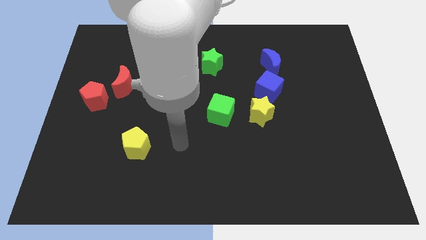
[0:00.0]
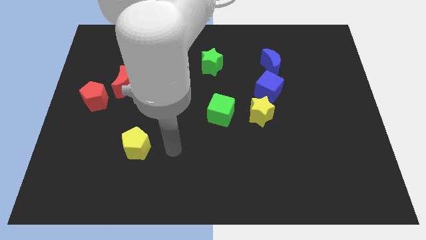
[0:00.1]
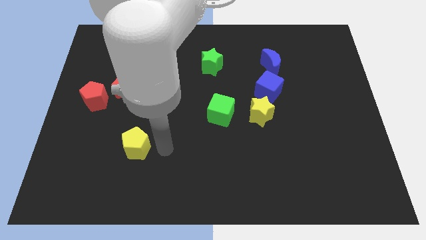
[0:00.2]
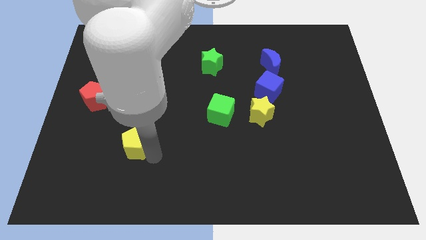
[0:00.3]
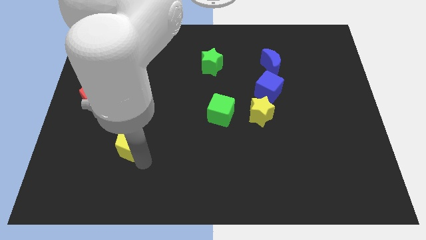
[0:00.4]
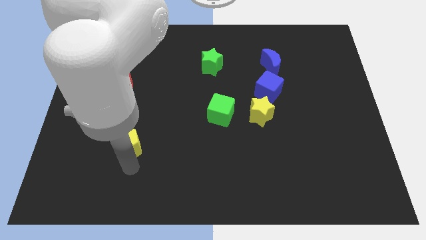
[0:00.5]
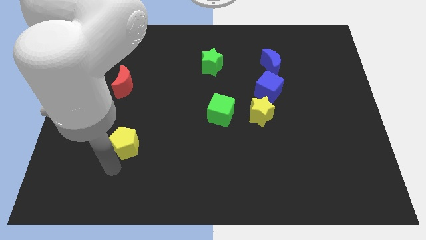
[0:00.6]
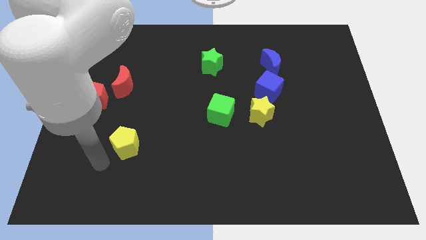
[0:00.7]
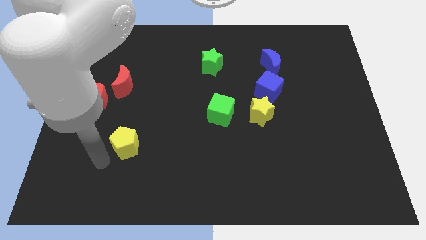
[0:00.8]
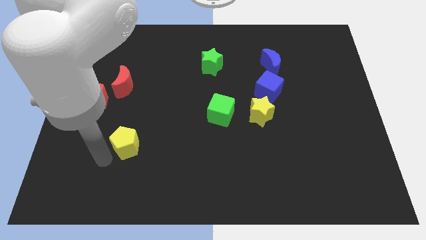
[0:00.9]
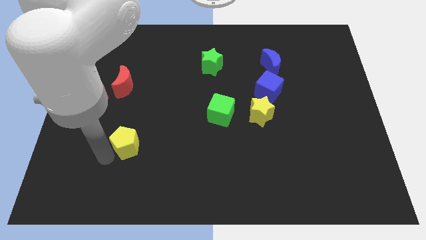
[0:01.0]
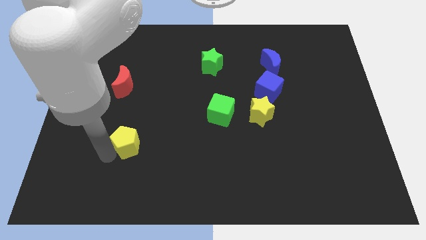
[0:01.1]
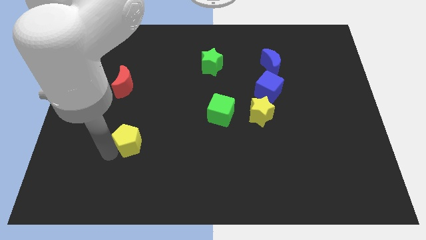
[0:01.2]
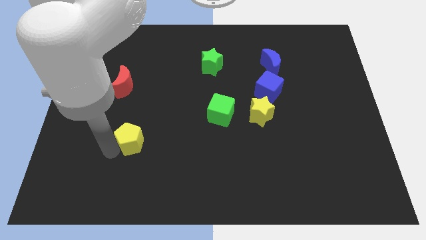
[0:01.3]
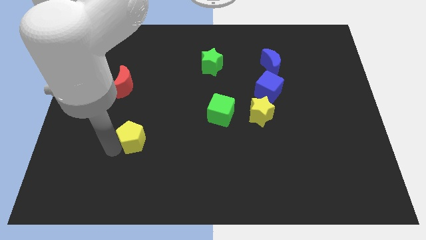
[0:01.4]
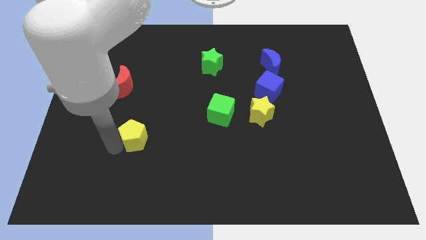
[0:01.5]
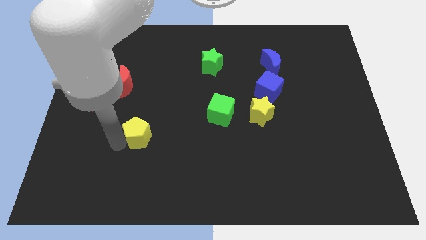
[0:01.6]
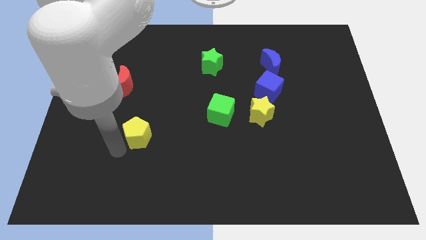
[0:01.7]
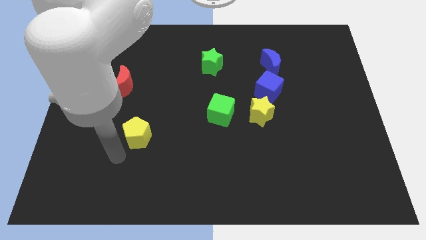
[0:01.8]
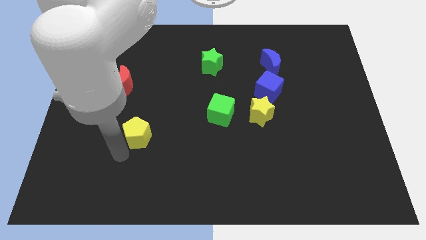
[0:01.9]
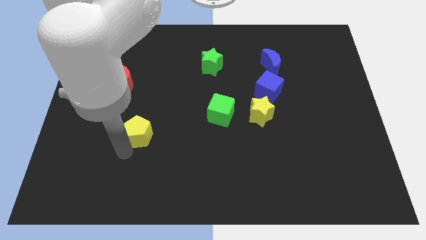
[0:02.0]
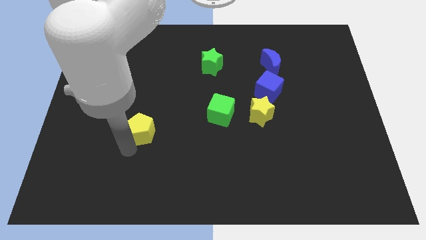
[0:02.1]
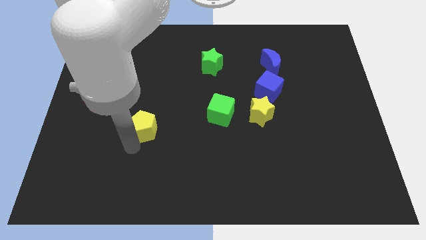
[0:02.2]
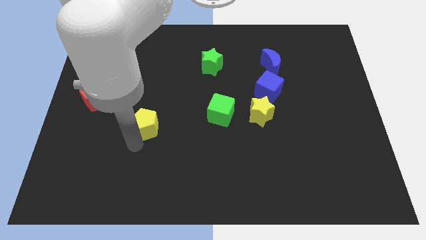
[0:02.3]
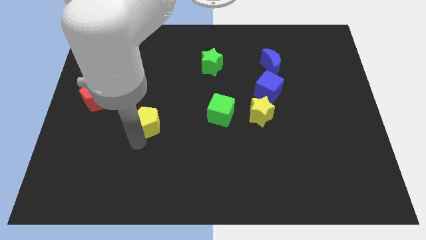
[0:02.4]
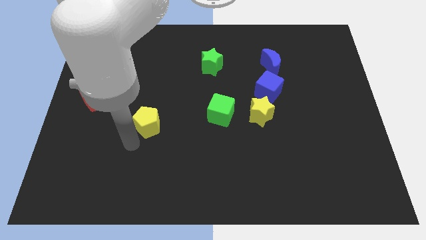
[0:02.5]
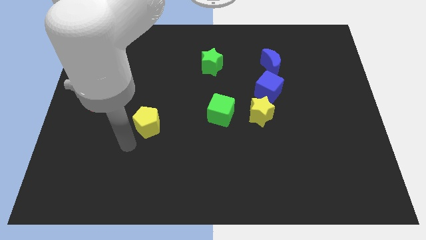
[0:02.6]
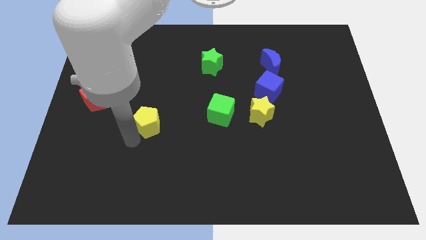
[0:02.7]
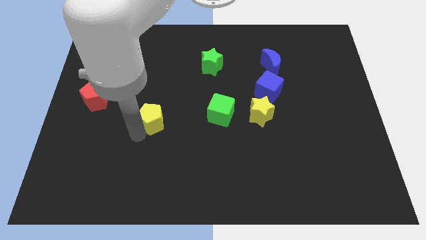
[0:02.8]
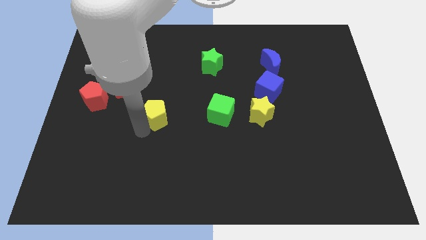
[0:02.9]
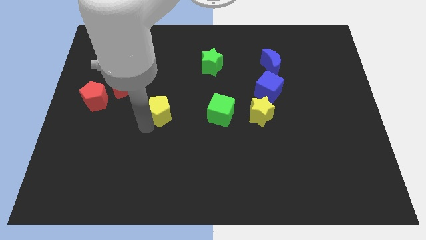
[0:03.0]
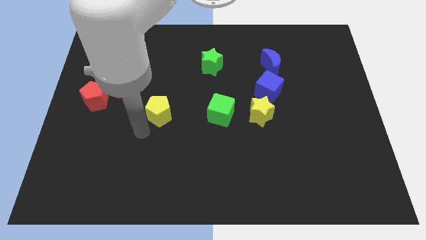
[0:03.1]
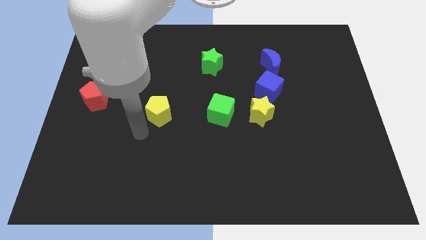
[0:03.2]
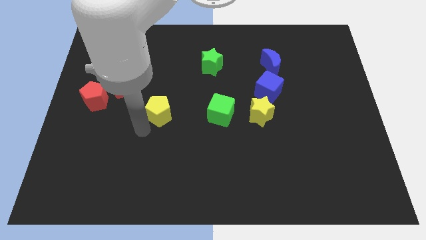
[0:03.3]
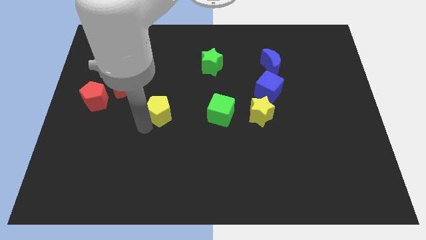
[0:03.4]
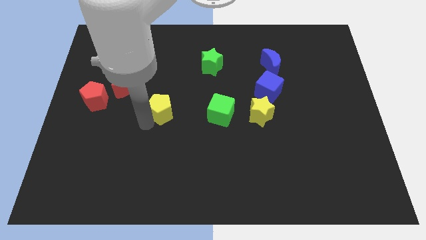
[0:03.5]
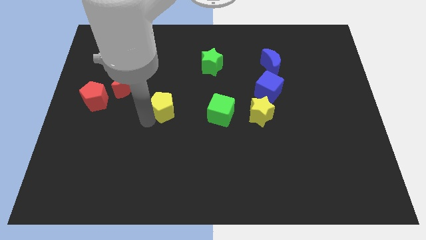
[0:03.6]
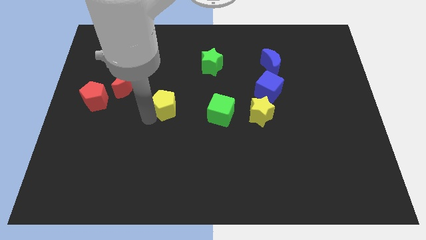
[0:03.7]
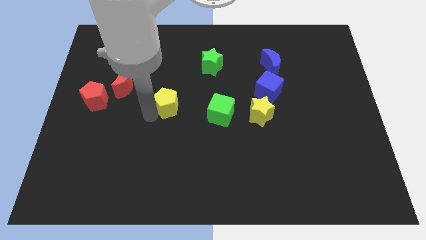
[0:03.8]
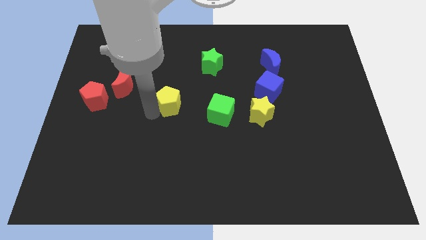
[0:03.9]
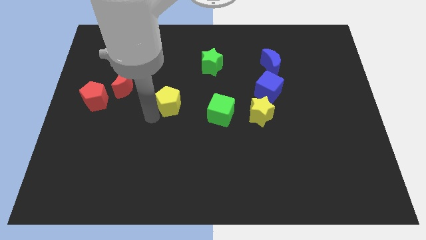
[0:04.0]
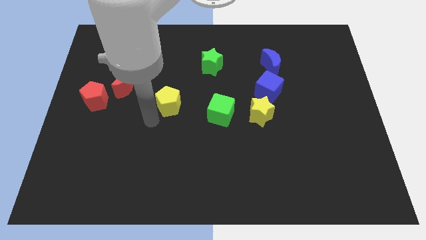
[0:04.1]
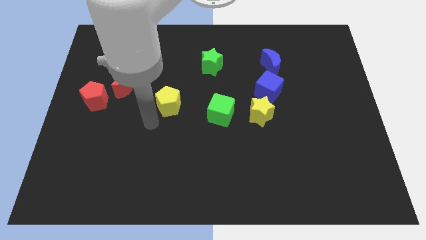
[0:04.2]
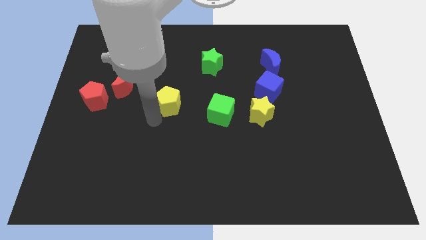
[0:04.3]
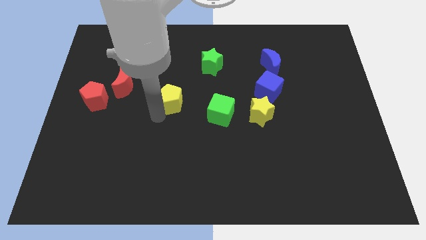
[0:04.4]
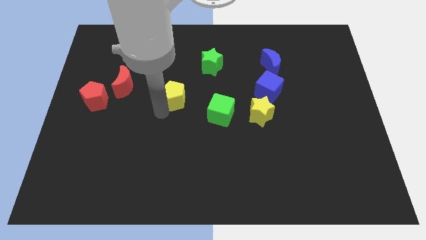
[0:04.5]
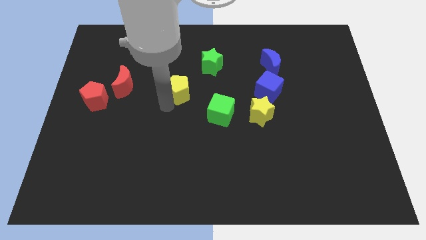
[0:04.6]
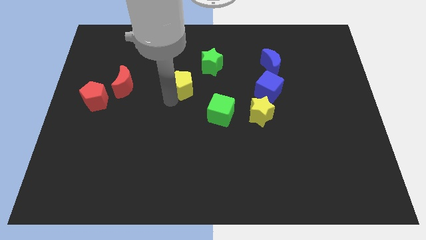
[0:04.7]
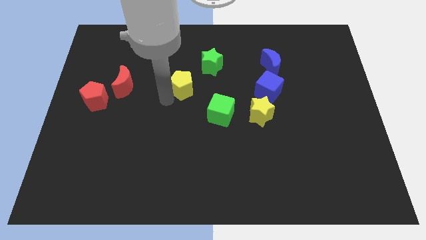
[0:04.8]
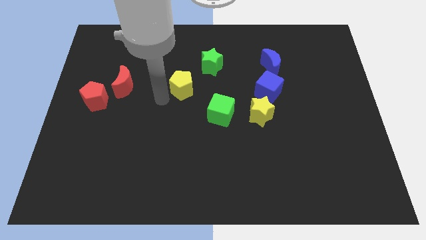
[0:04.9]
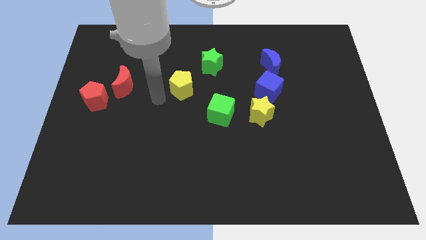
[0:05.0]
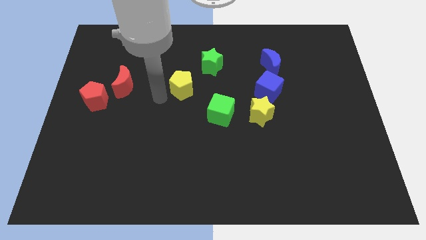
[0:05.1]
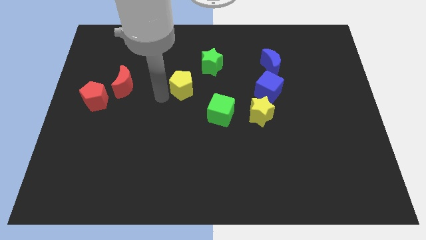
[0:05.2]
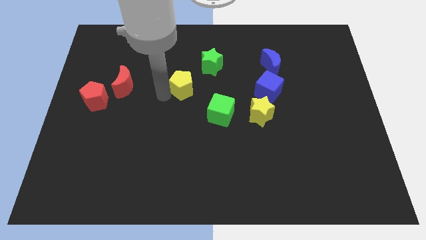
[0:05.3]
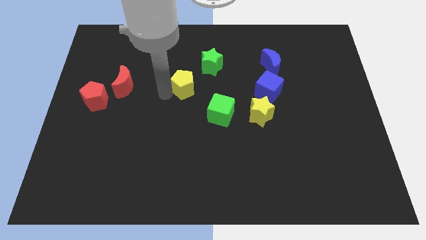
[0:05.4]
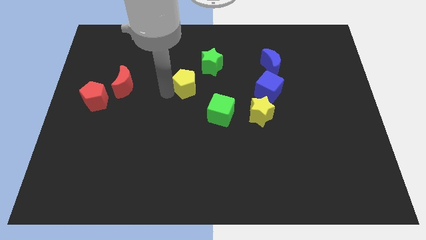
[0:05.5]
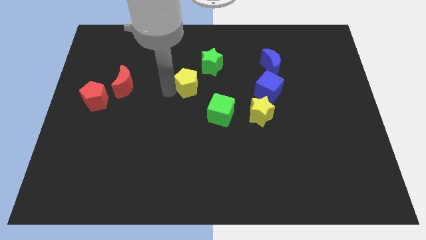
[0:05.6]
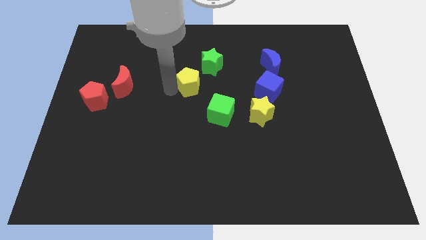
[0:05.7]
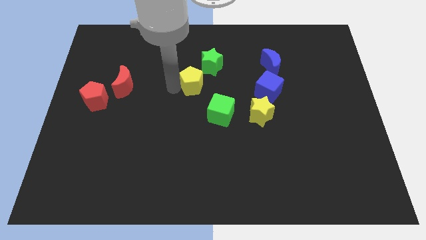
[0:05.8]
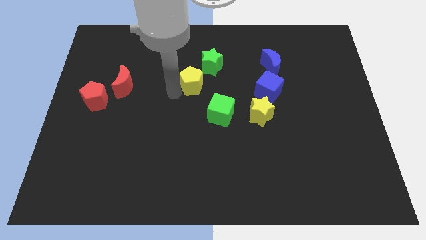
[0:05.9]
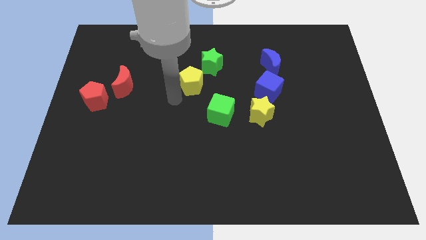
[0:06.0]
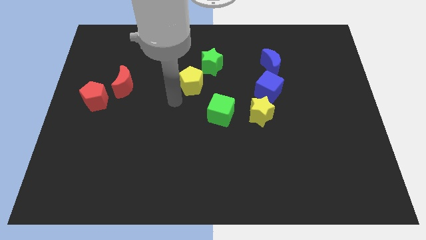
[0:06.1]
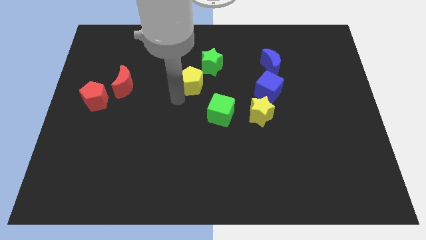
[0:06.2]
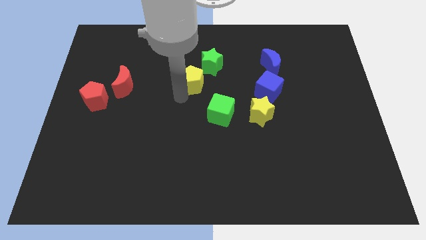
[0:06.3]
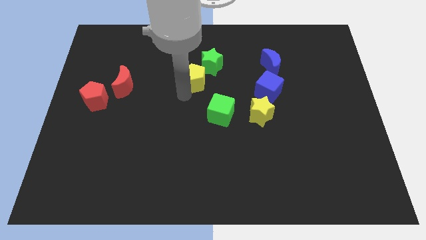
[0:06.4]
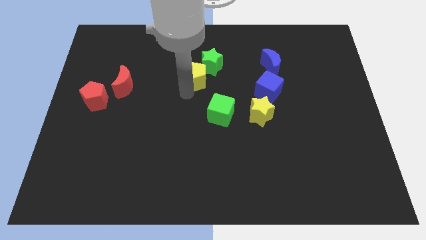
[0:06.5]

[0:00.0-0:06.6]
put the yellow pentagon towards the green star

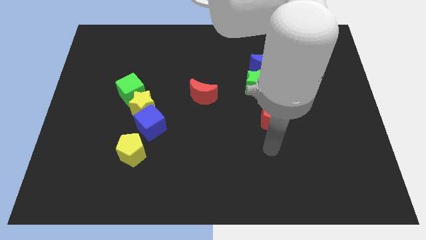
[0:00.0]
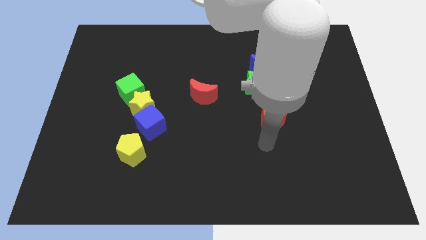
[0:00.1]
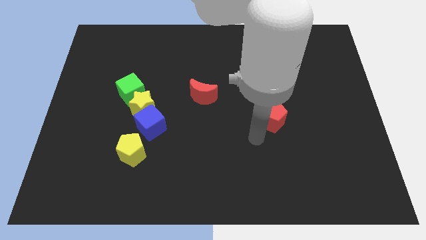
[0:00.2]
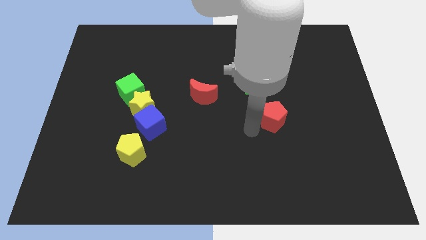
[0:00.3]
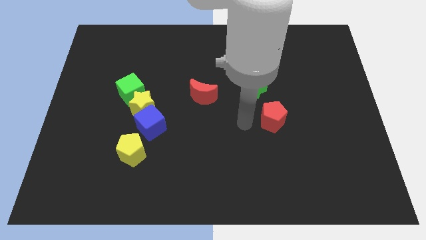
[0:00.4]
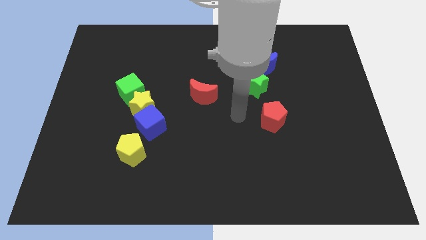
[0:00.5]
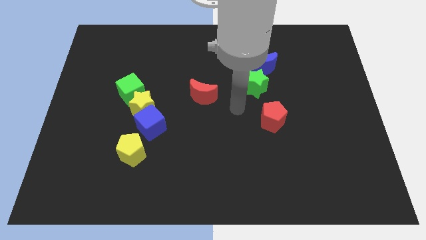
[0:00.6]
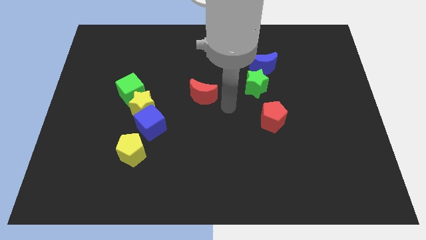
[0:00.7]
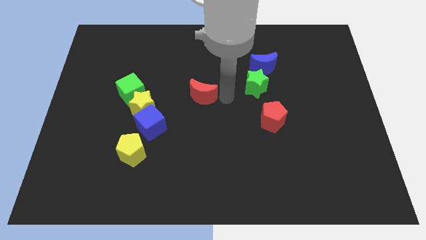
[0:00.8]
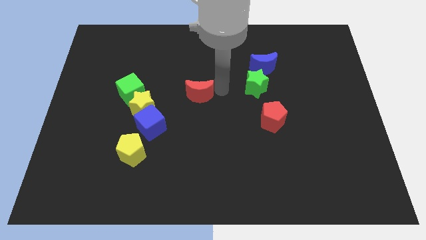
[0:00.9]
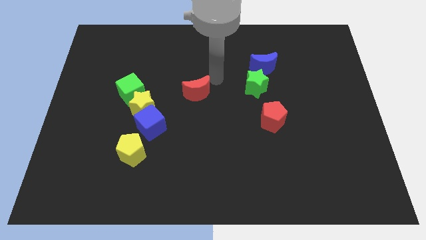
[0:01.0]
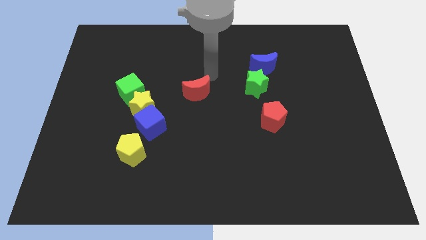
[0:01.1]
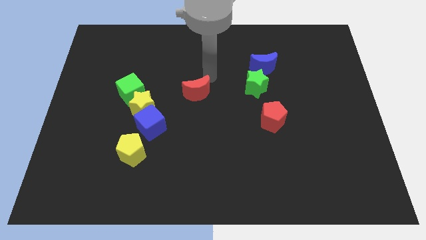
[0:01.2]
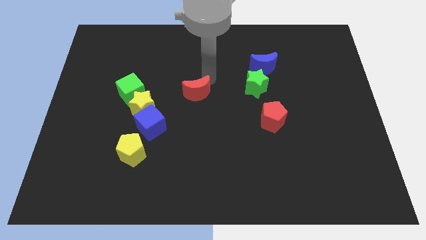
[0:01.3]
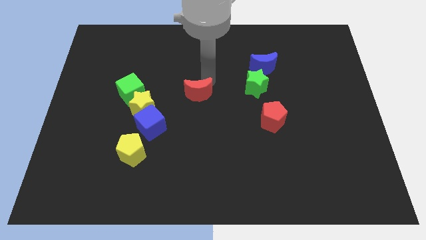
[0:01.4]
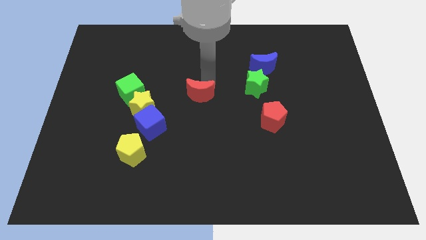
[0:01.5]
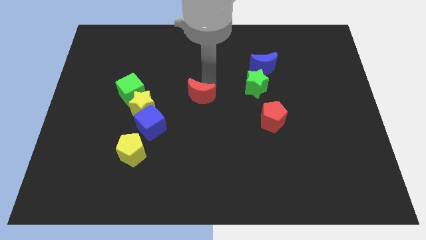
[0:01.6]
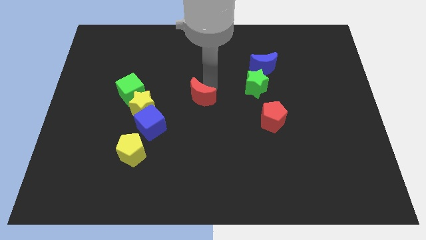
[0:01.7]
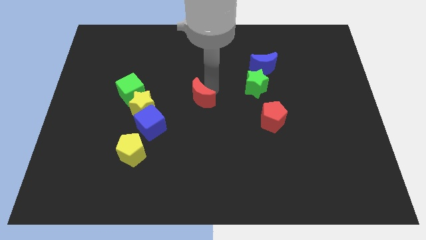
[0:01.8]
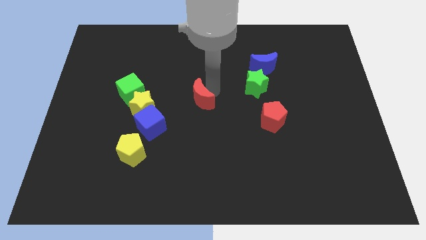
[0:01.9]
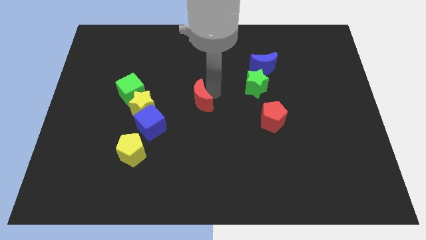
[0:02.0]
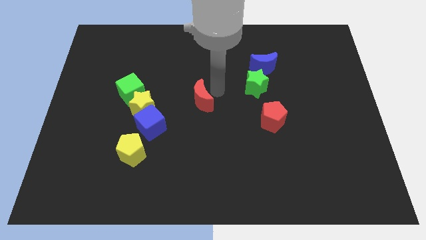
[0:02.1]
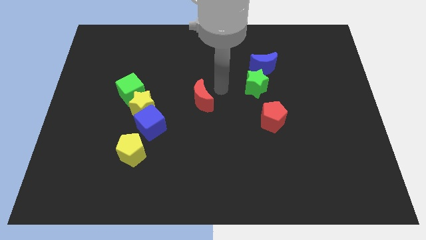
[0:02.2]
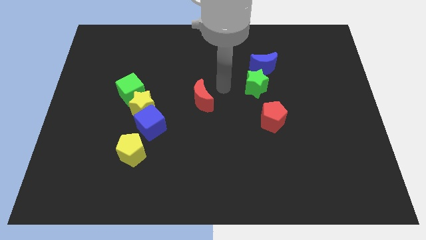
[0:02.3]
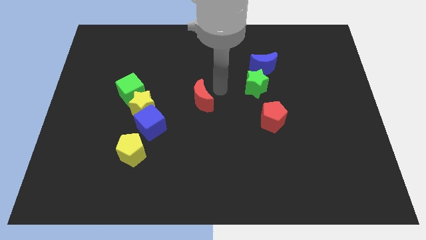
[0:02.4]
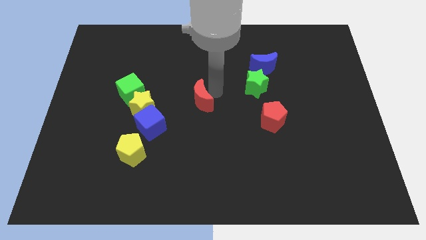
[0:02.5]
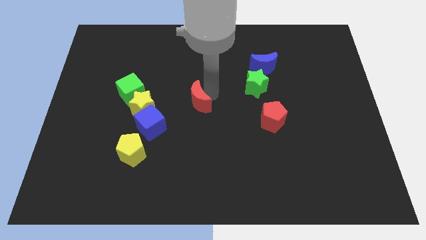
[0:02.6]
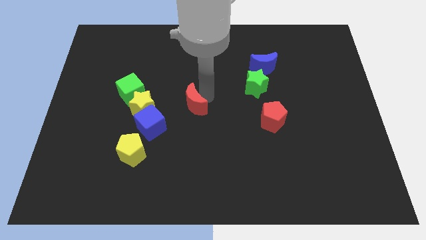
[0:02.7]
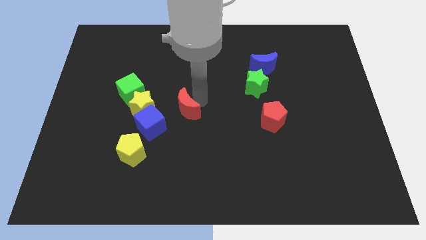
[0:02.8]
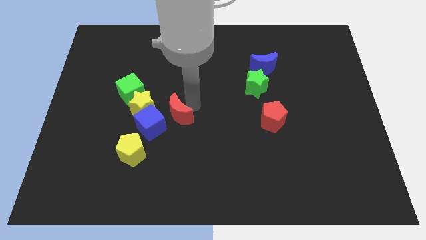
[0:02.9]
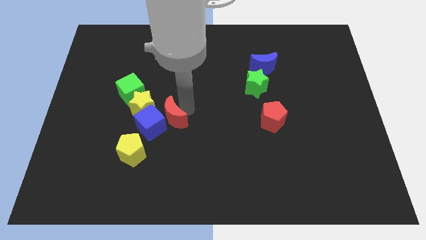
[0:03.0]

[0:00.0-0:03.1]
move the red moon close to the blue cube
